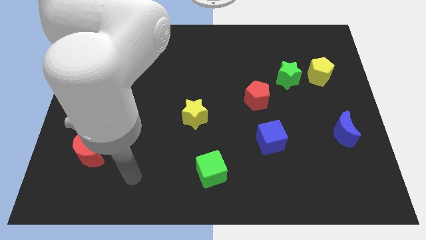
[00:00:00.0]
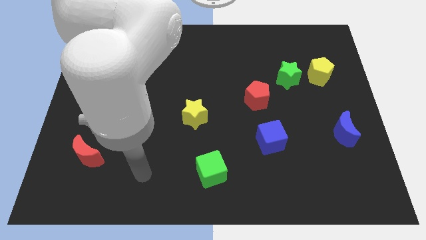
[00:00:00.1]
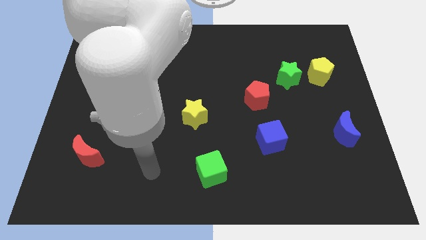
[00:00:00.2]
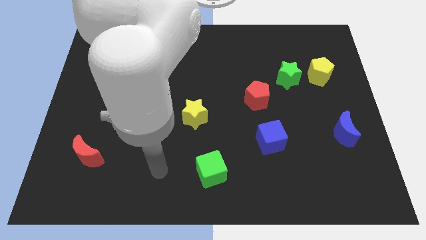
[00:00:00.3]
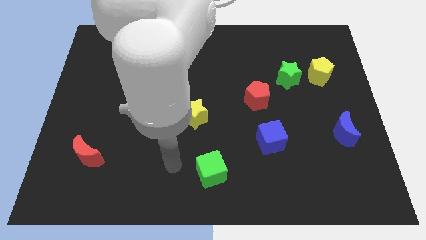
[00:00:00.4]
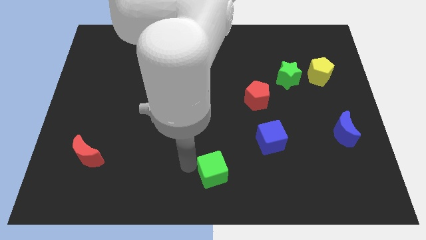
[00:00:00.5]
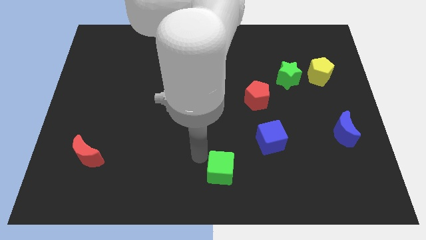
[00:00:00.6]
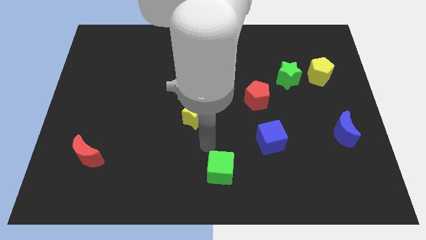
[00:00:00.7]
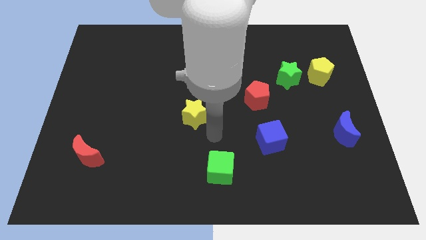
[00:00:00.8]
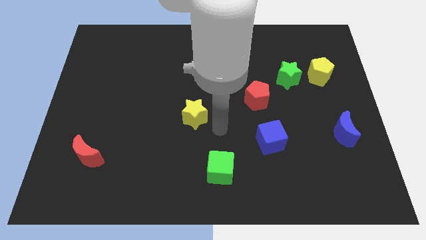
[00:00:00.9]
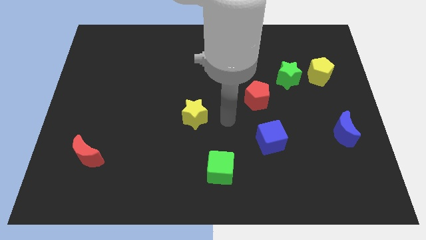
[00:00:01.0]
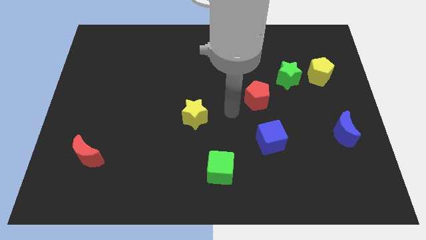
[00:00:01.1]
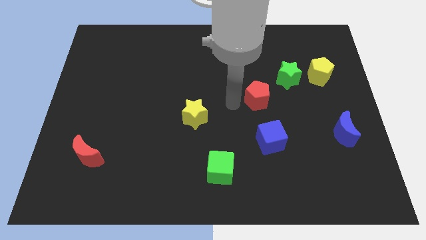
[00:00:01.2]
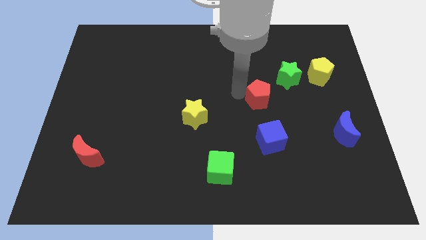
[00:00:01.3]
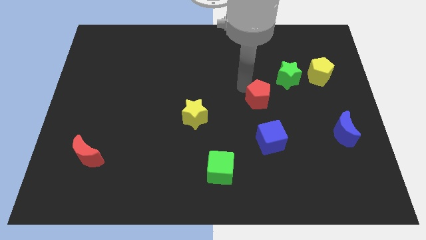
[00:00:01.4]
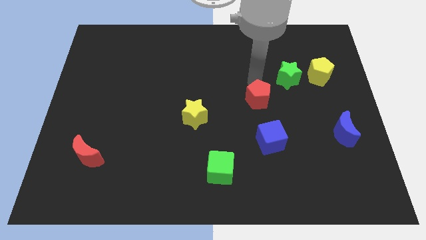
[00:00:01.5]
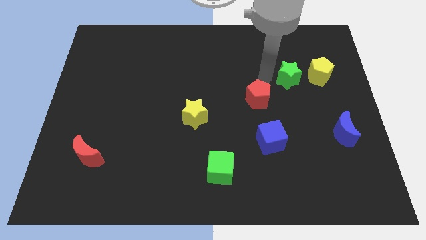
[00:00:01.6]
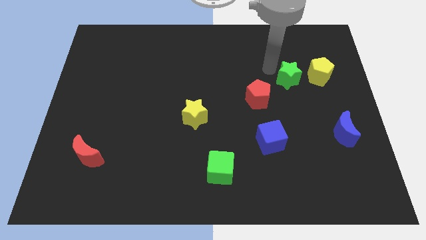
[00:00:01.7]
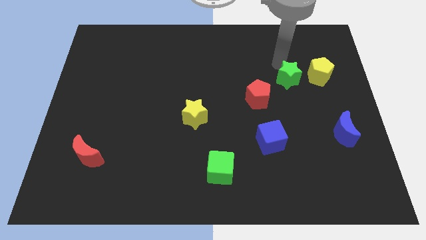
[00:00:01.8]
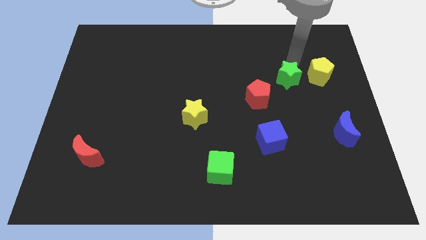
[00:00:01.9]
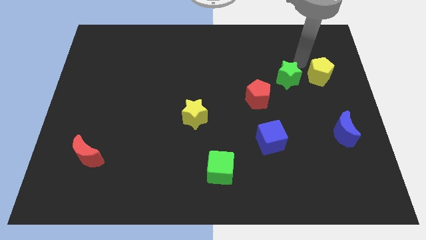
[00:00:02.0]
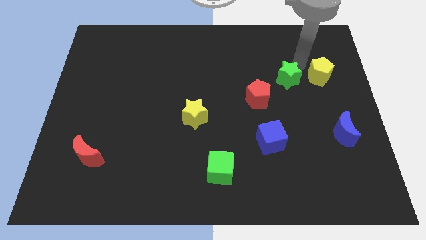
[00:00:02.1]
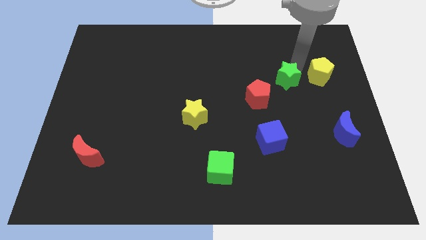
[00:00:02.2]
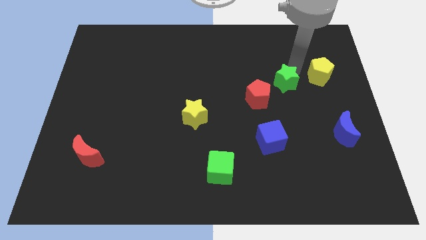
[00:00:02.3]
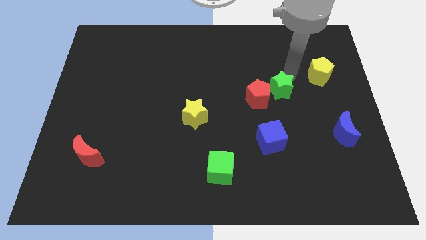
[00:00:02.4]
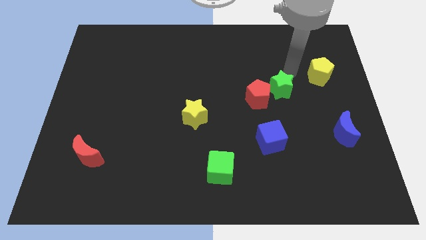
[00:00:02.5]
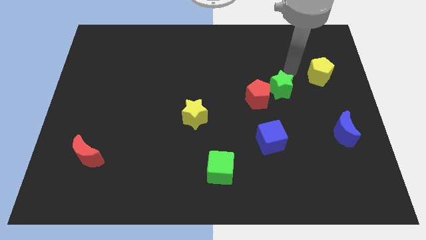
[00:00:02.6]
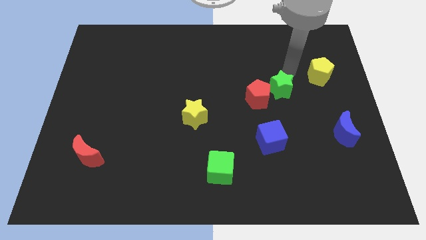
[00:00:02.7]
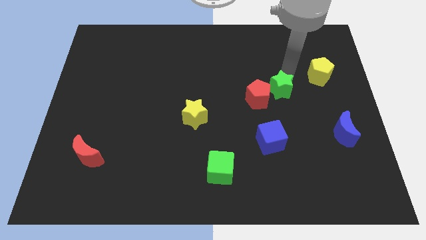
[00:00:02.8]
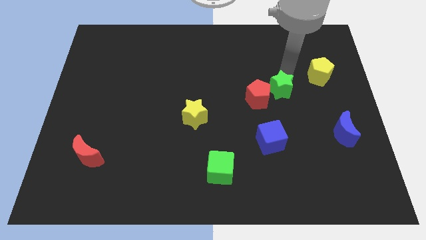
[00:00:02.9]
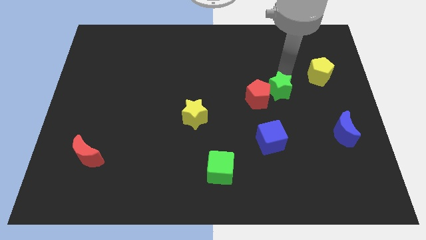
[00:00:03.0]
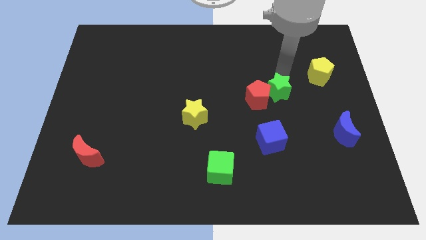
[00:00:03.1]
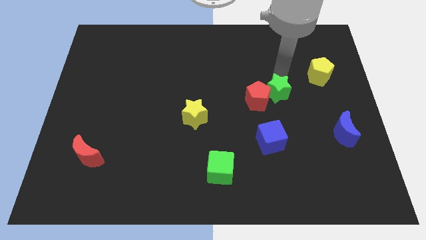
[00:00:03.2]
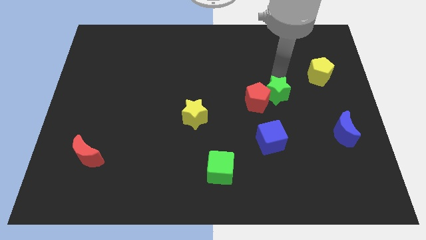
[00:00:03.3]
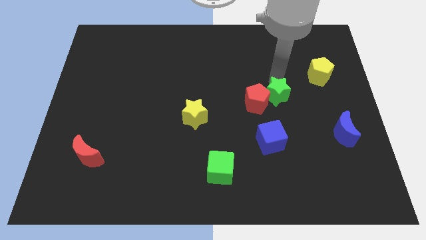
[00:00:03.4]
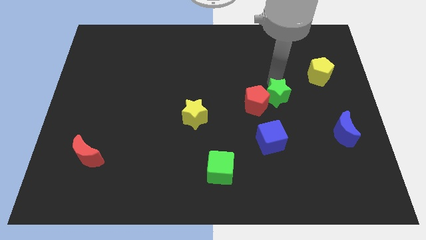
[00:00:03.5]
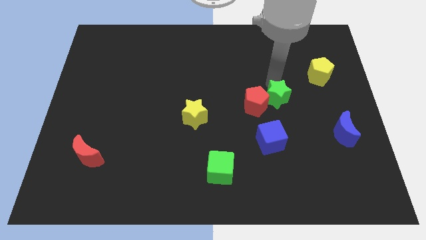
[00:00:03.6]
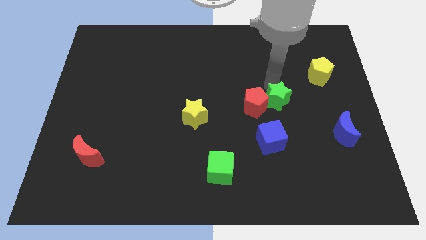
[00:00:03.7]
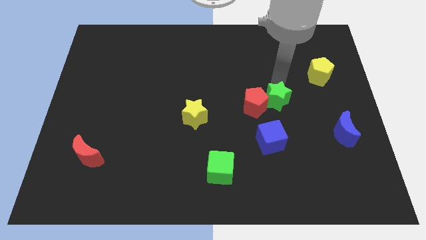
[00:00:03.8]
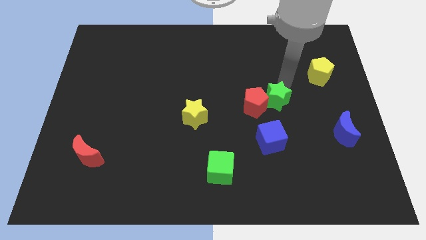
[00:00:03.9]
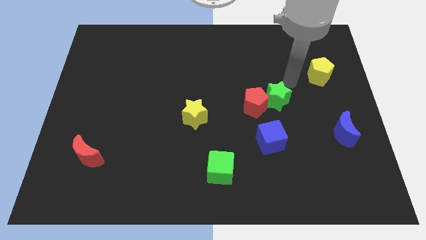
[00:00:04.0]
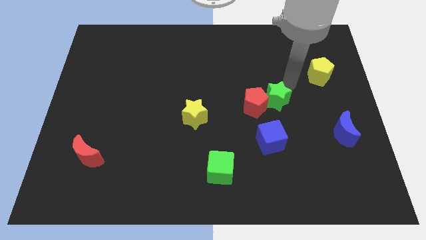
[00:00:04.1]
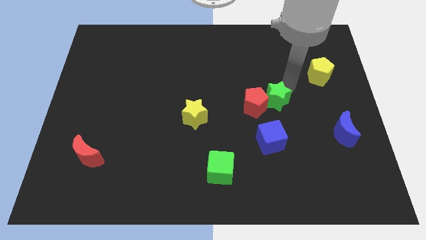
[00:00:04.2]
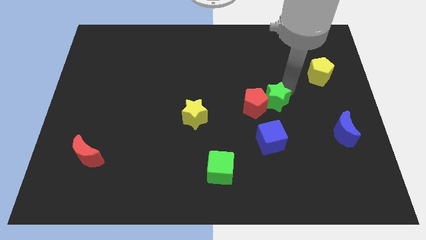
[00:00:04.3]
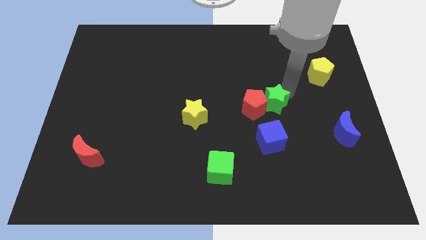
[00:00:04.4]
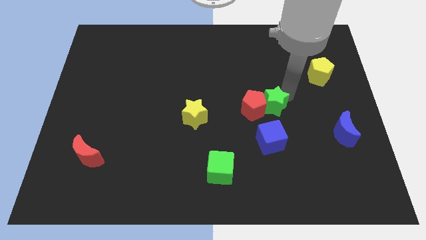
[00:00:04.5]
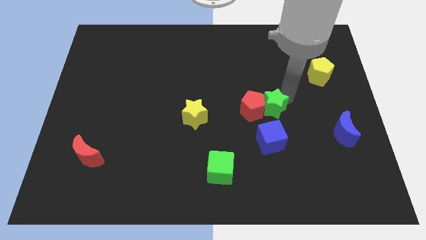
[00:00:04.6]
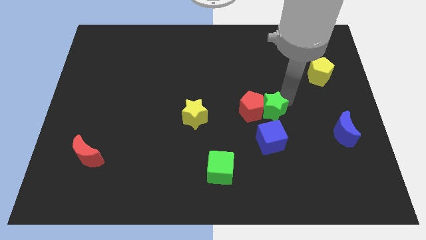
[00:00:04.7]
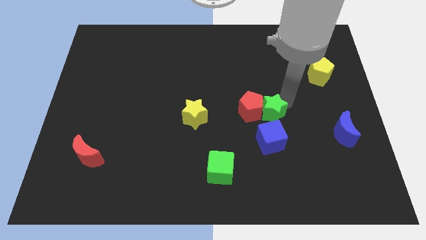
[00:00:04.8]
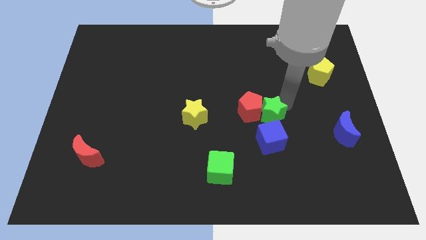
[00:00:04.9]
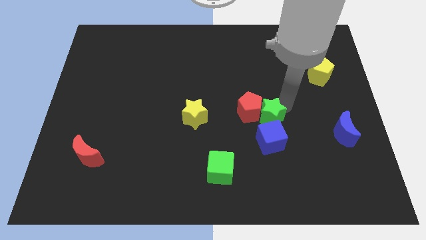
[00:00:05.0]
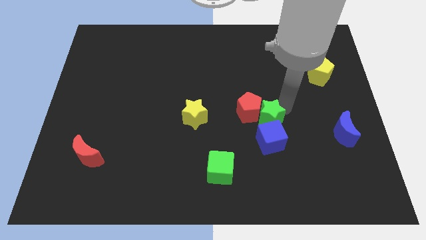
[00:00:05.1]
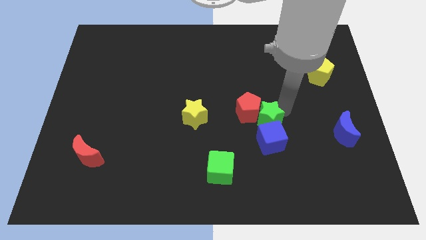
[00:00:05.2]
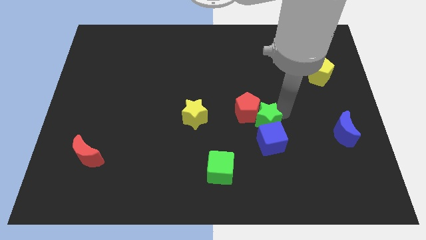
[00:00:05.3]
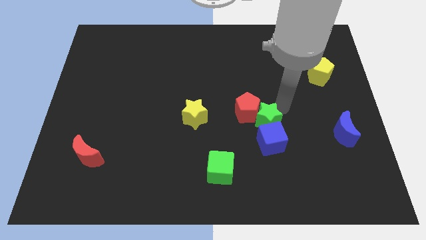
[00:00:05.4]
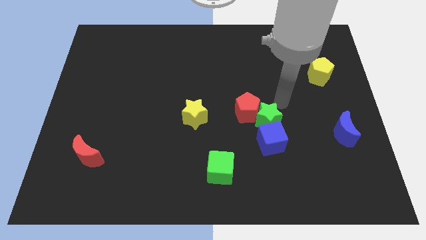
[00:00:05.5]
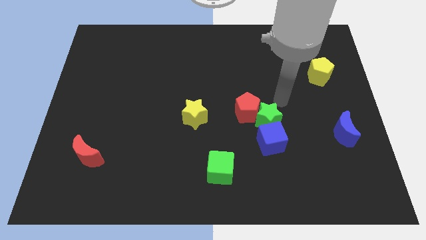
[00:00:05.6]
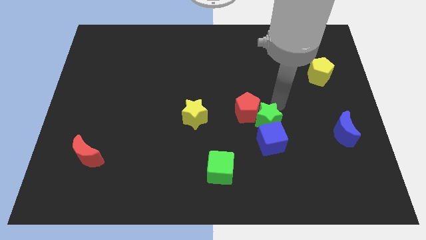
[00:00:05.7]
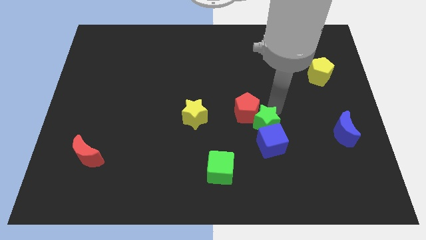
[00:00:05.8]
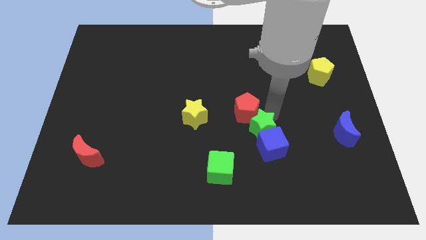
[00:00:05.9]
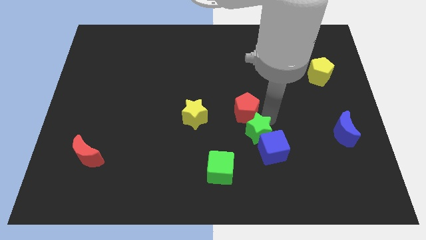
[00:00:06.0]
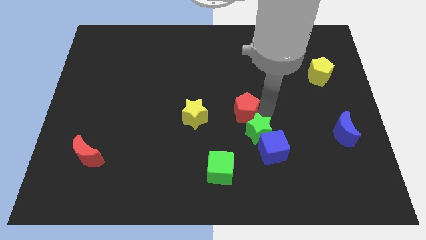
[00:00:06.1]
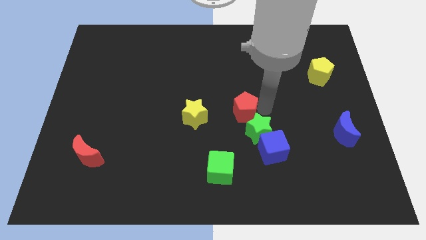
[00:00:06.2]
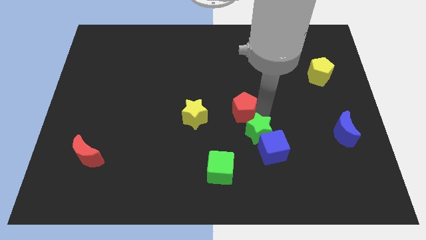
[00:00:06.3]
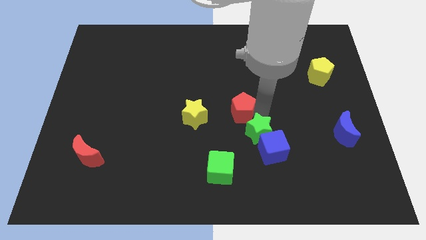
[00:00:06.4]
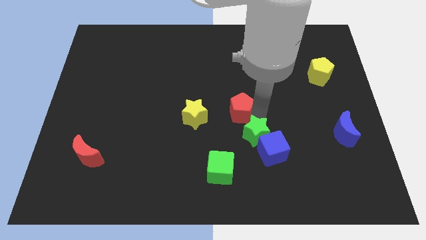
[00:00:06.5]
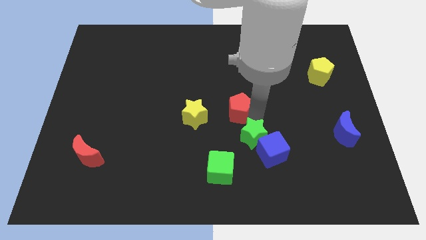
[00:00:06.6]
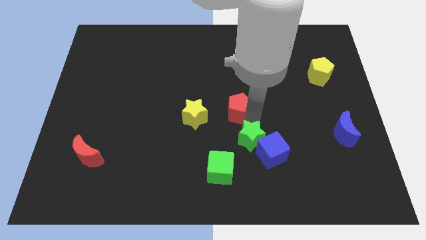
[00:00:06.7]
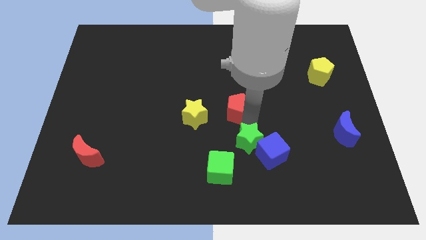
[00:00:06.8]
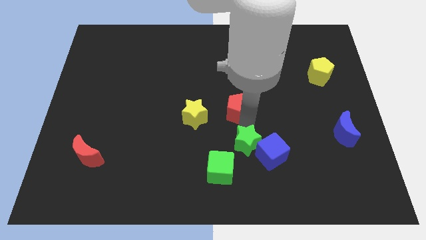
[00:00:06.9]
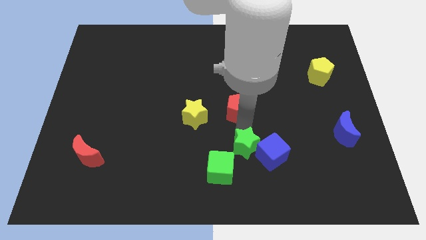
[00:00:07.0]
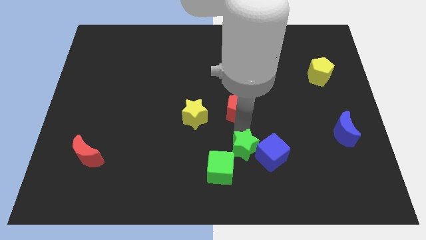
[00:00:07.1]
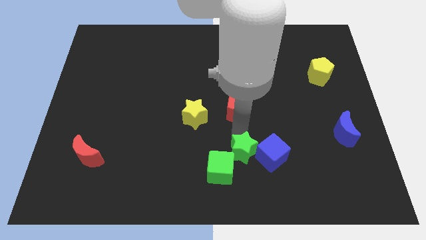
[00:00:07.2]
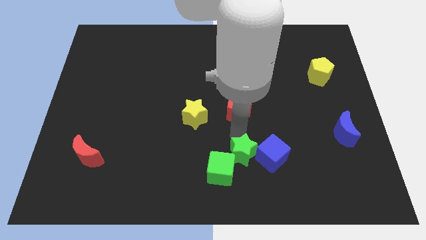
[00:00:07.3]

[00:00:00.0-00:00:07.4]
slide the green star to the bottom left of the blue cube
